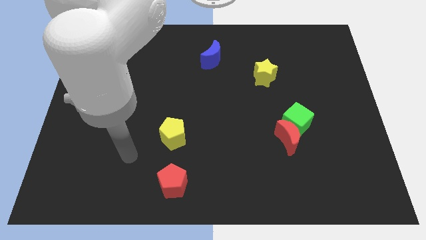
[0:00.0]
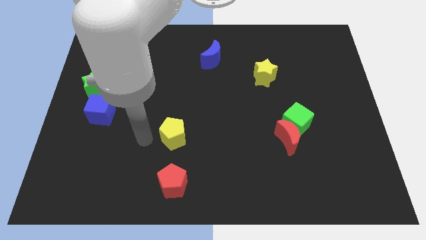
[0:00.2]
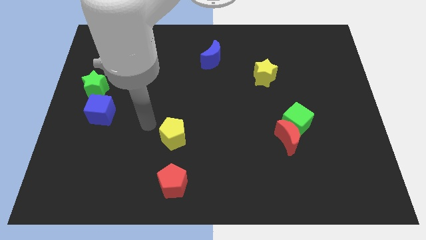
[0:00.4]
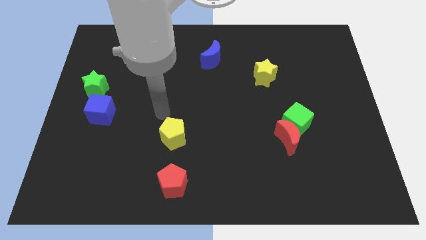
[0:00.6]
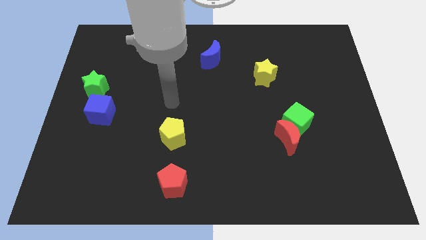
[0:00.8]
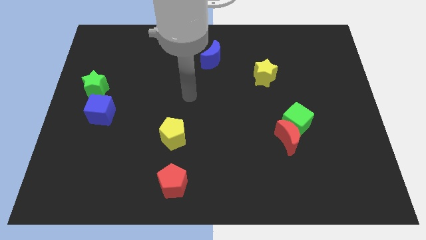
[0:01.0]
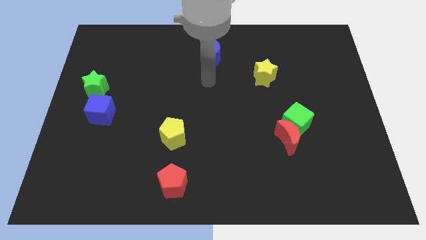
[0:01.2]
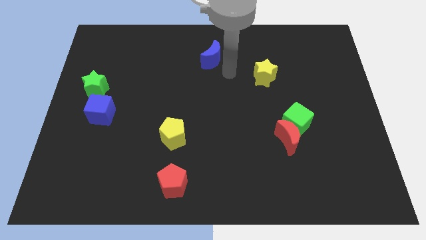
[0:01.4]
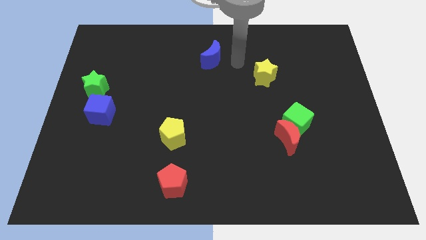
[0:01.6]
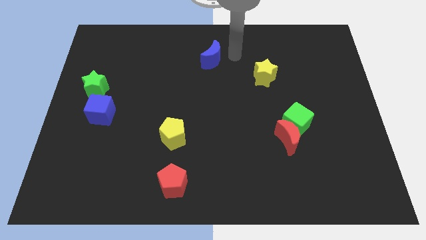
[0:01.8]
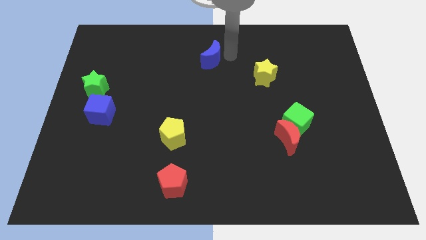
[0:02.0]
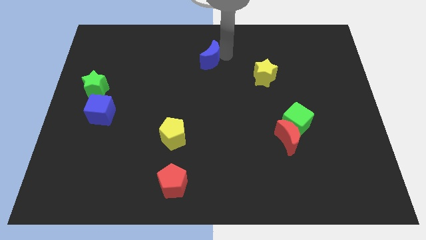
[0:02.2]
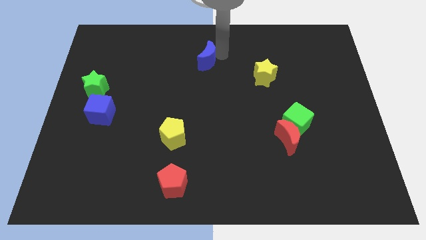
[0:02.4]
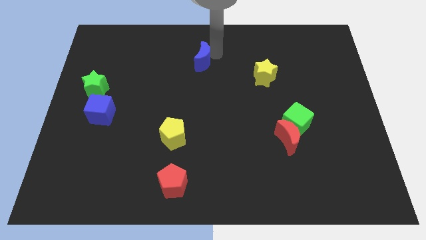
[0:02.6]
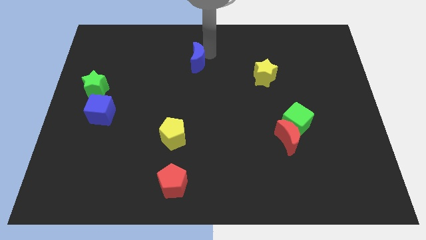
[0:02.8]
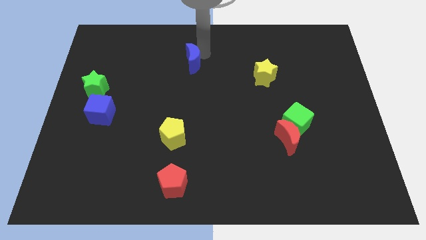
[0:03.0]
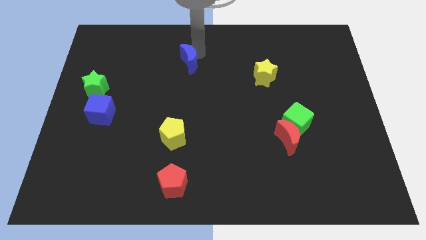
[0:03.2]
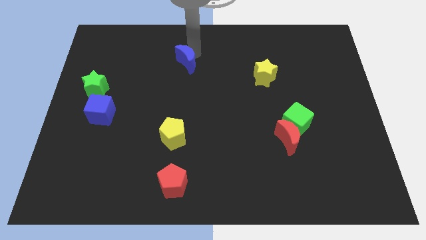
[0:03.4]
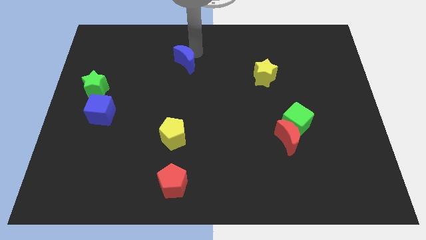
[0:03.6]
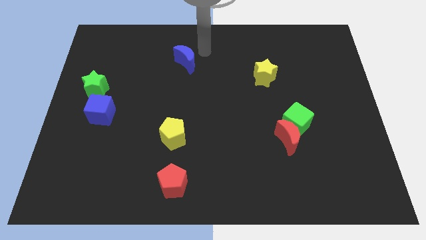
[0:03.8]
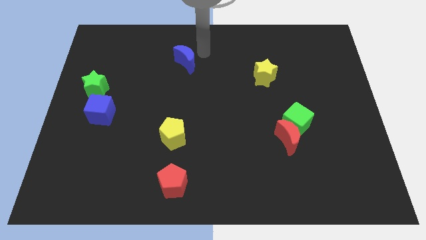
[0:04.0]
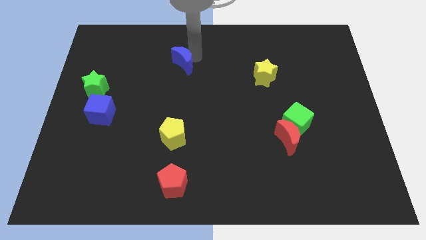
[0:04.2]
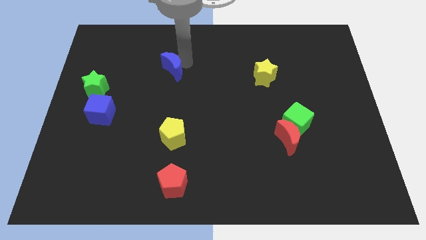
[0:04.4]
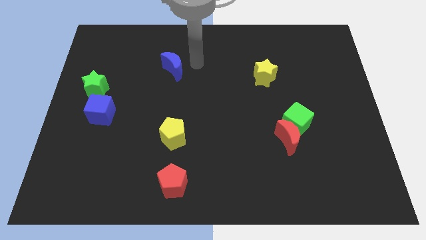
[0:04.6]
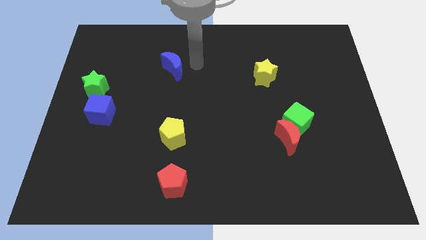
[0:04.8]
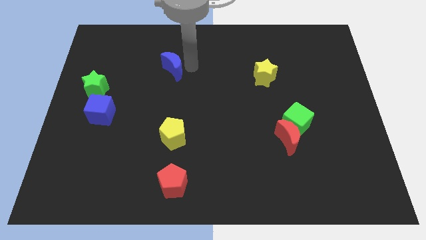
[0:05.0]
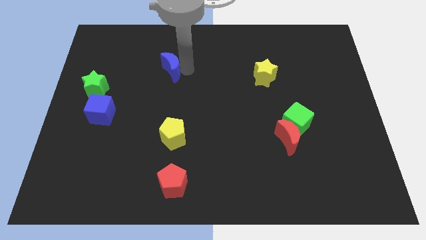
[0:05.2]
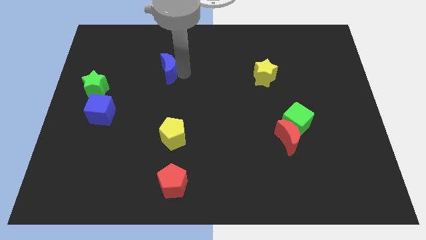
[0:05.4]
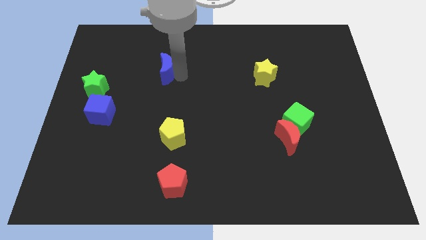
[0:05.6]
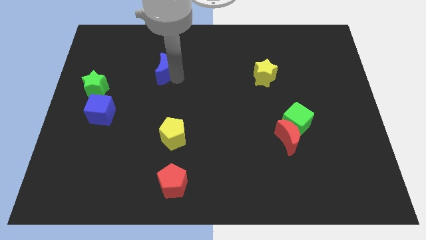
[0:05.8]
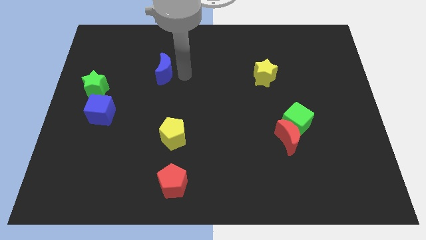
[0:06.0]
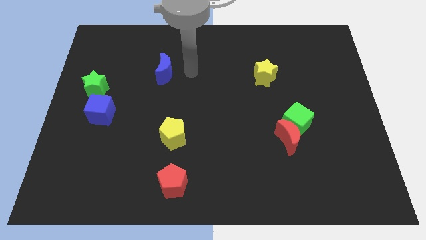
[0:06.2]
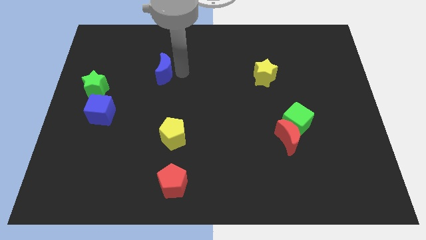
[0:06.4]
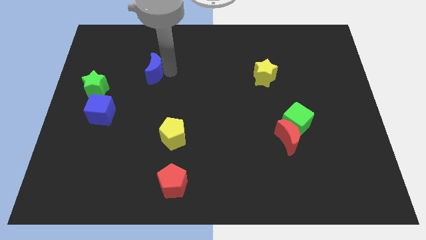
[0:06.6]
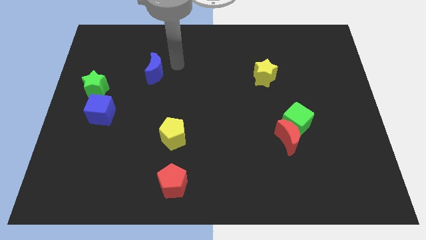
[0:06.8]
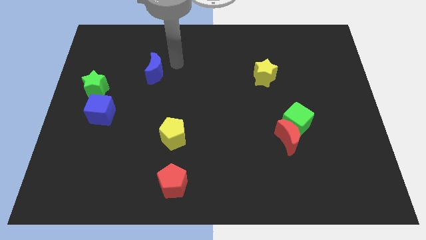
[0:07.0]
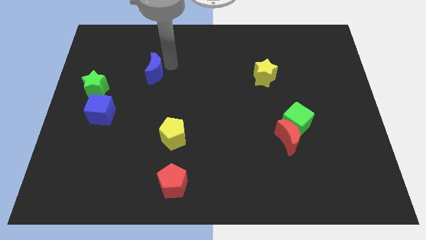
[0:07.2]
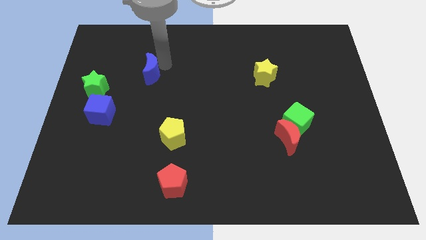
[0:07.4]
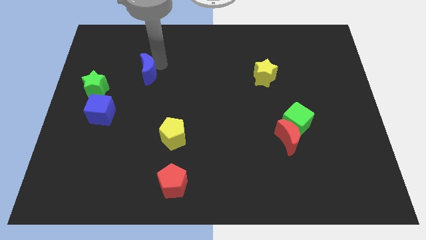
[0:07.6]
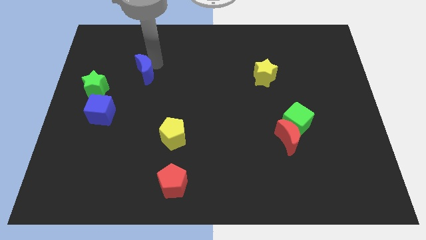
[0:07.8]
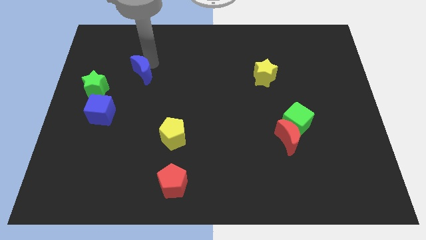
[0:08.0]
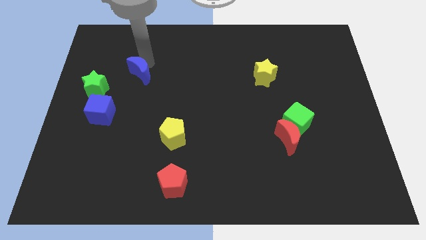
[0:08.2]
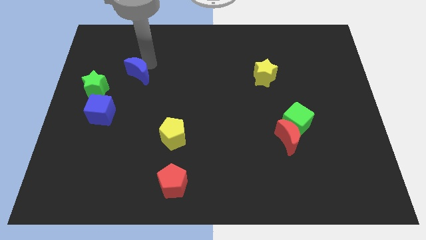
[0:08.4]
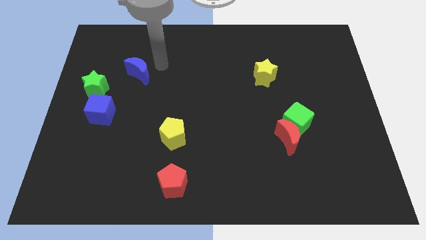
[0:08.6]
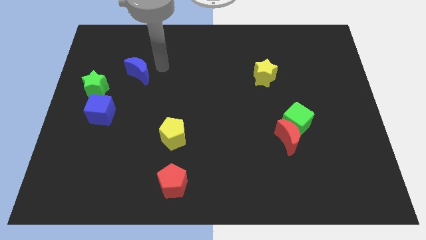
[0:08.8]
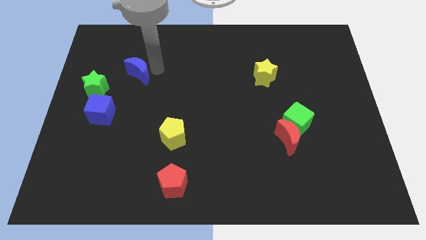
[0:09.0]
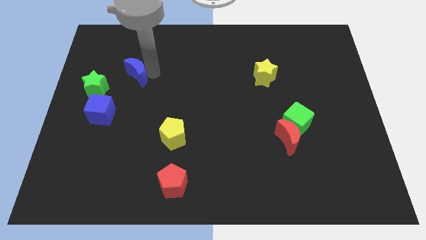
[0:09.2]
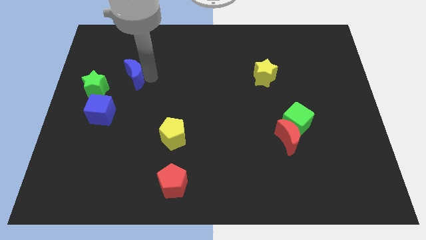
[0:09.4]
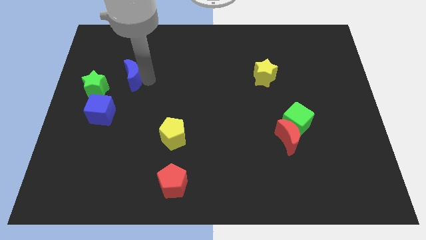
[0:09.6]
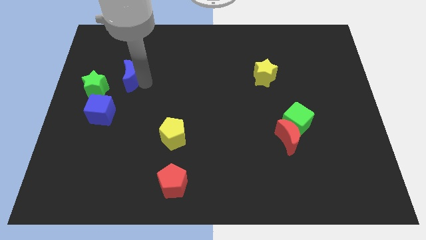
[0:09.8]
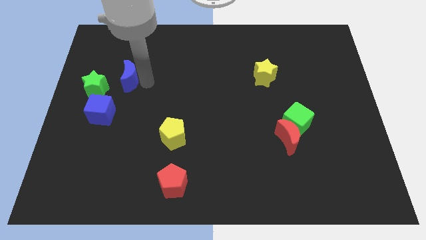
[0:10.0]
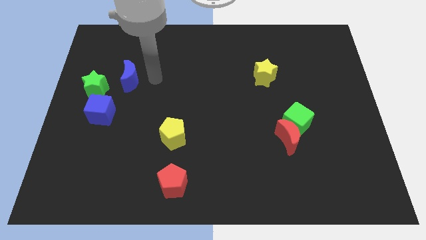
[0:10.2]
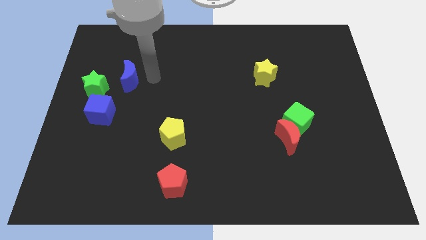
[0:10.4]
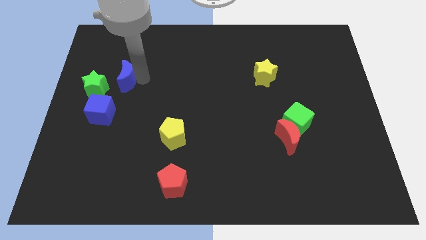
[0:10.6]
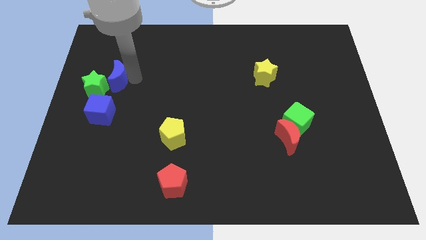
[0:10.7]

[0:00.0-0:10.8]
push the blue moon towards the green star

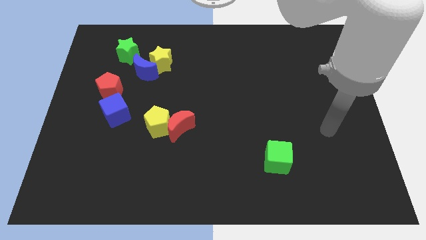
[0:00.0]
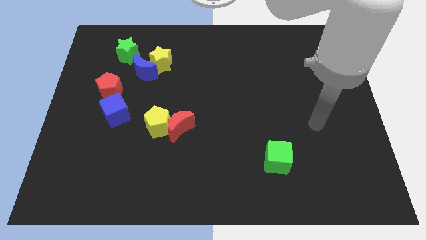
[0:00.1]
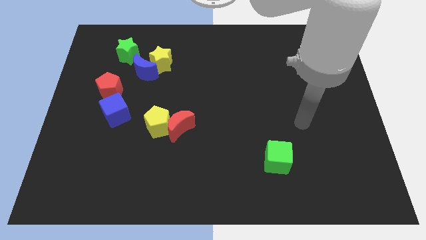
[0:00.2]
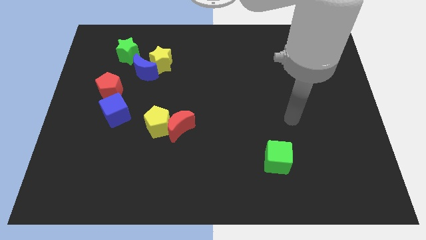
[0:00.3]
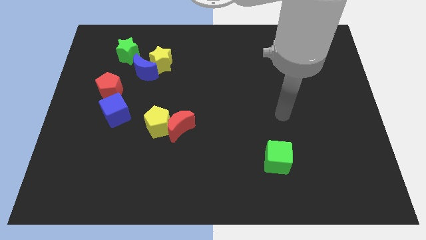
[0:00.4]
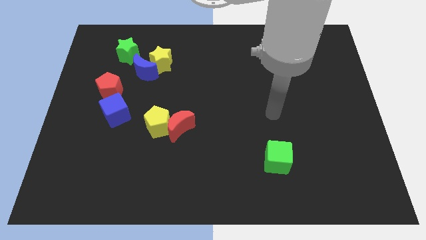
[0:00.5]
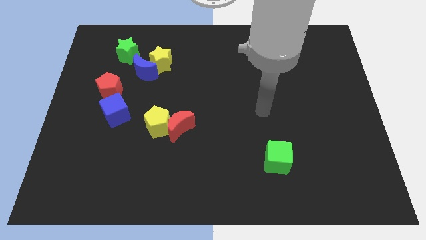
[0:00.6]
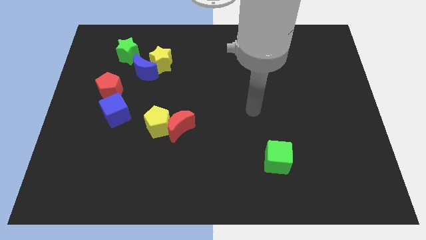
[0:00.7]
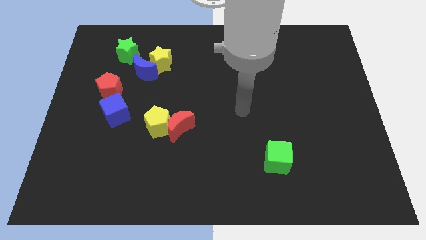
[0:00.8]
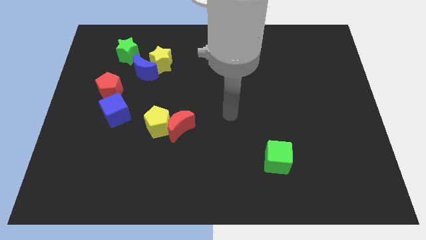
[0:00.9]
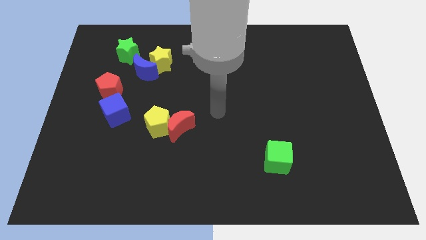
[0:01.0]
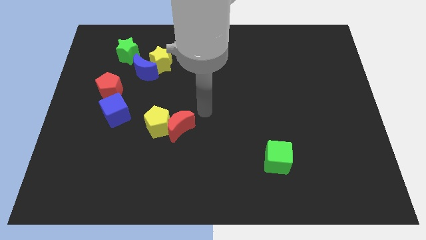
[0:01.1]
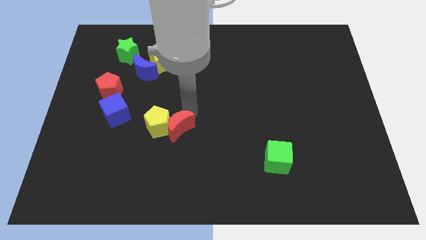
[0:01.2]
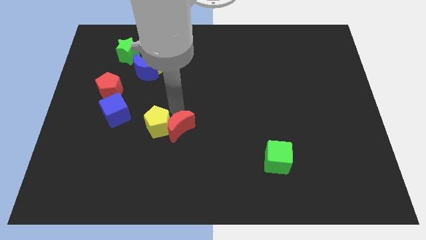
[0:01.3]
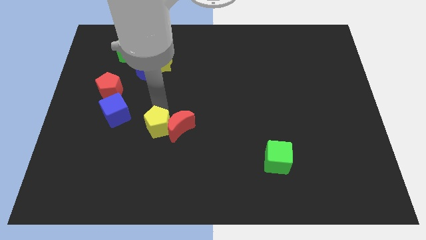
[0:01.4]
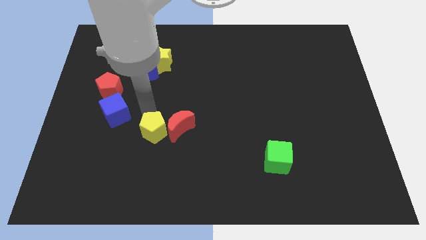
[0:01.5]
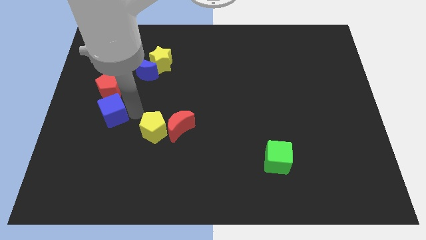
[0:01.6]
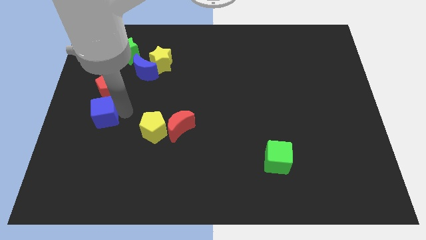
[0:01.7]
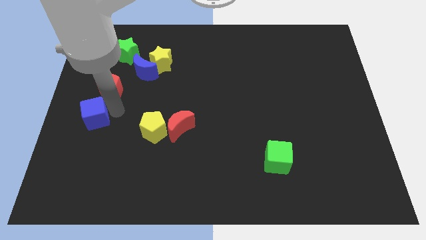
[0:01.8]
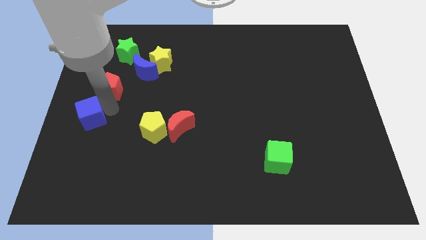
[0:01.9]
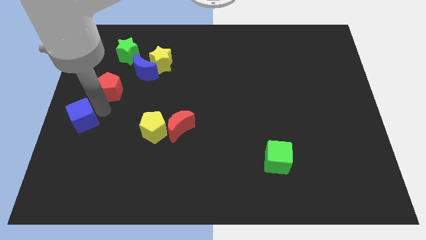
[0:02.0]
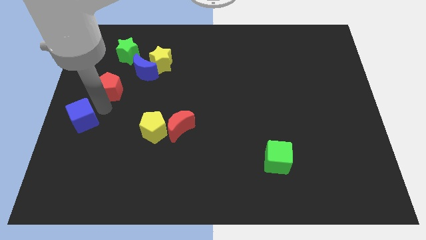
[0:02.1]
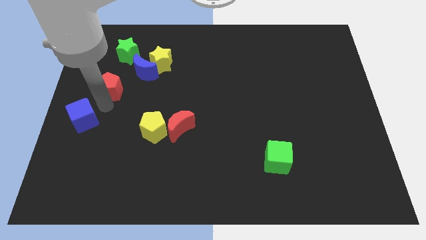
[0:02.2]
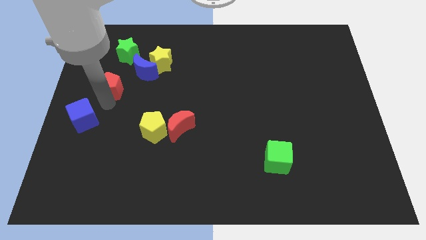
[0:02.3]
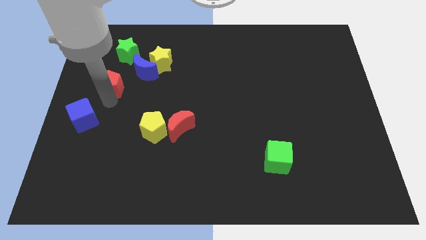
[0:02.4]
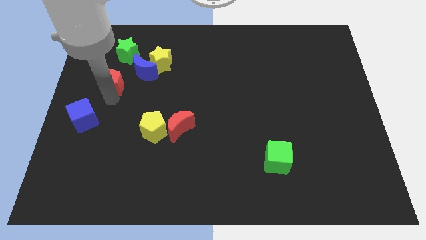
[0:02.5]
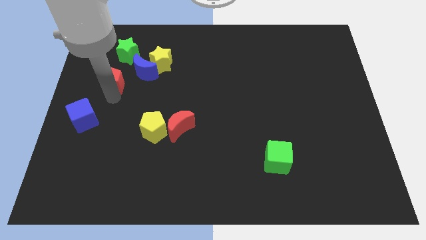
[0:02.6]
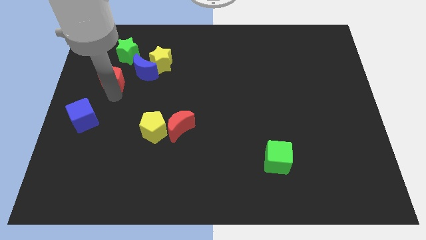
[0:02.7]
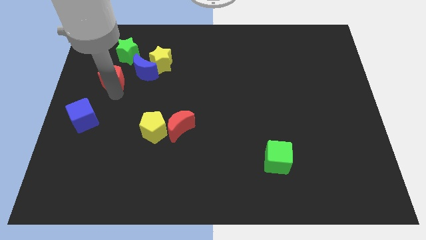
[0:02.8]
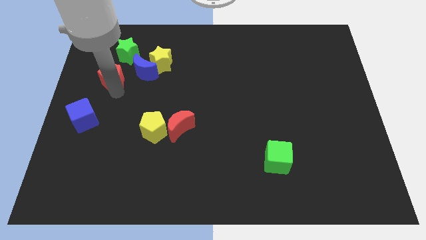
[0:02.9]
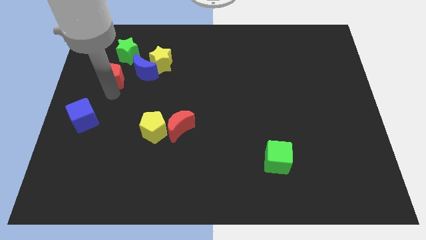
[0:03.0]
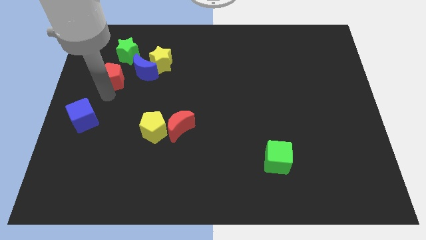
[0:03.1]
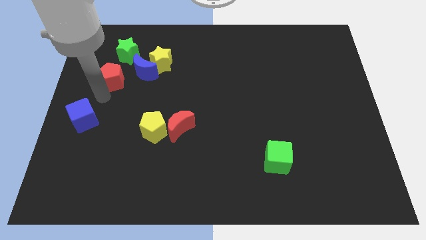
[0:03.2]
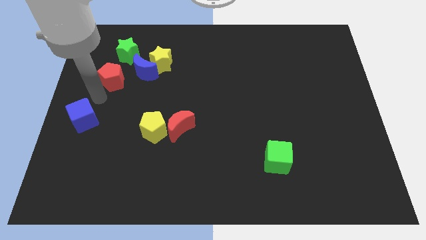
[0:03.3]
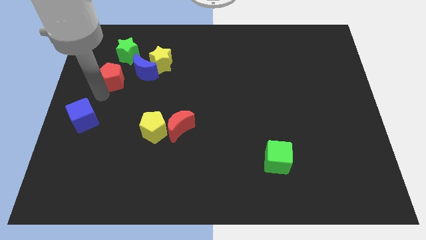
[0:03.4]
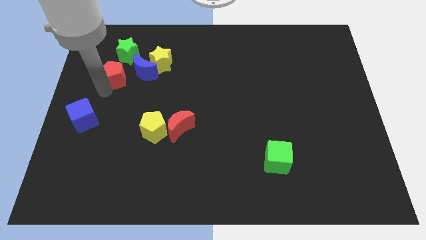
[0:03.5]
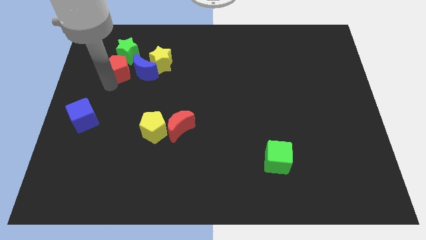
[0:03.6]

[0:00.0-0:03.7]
push the red pentagon towards the green star
